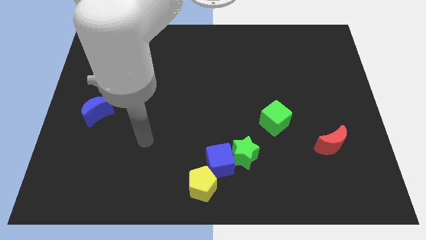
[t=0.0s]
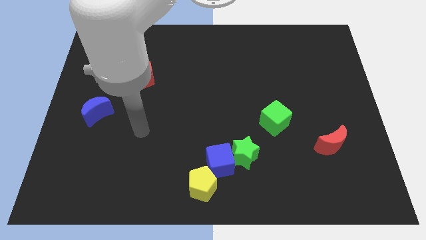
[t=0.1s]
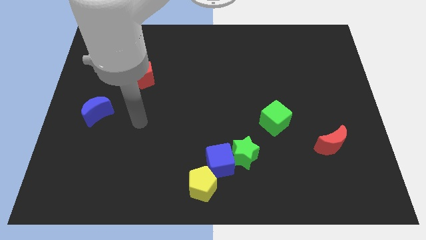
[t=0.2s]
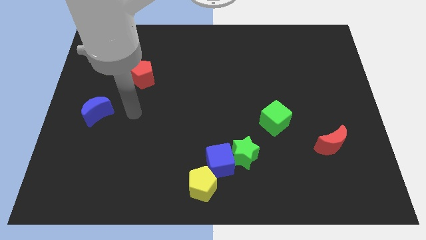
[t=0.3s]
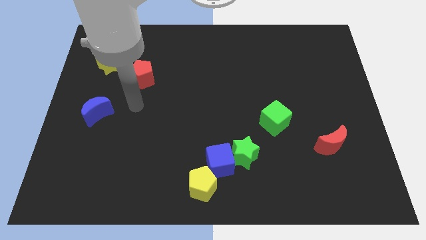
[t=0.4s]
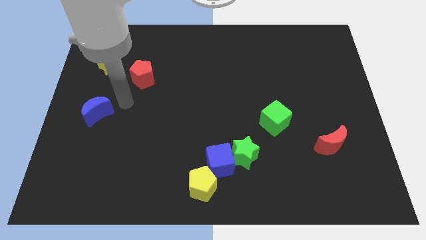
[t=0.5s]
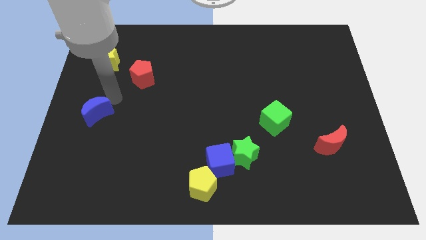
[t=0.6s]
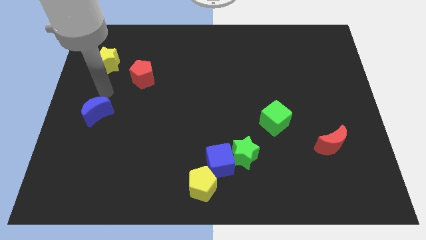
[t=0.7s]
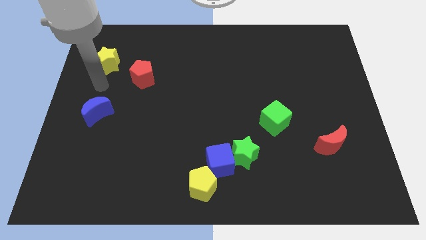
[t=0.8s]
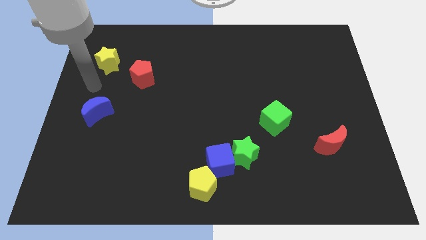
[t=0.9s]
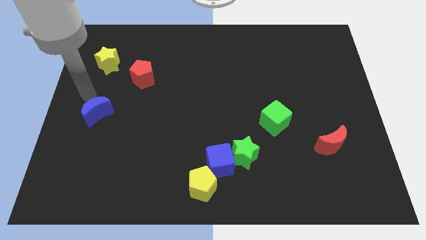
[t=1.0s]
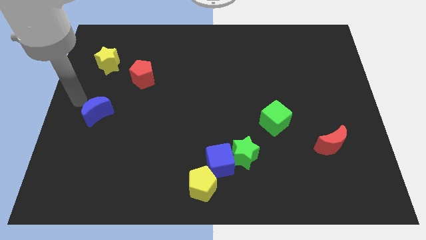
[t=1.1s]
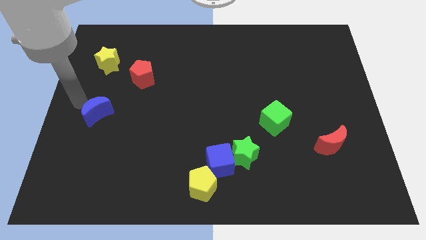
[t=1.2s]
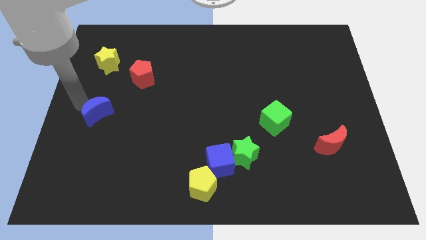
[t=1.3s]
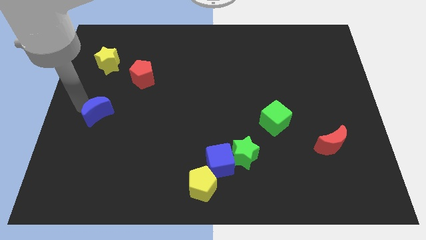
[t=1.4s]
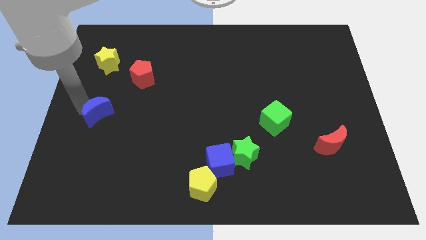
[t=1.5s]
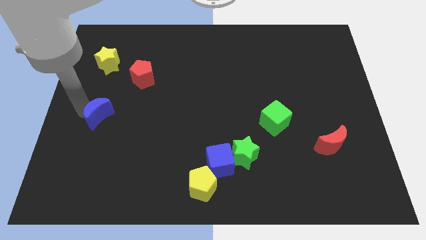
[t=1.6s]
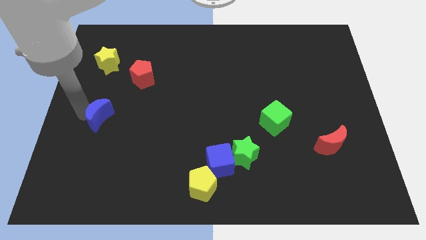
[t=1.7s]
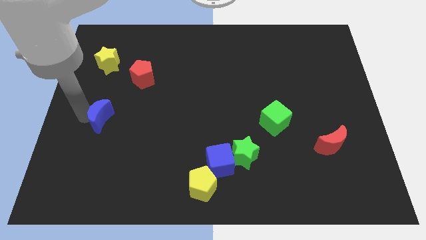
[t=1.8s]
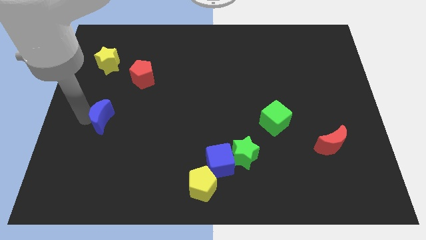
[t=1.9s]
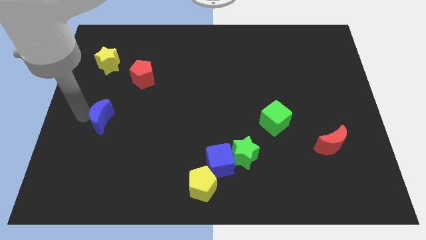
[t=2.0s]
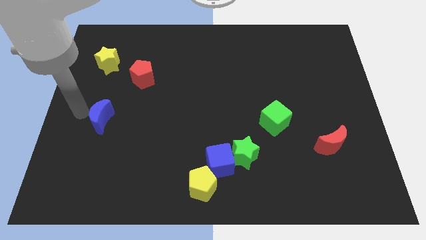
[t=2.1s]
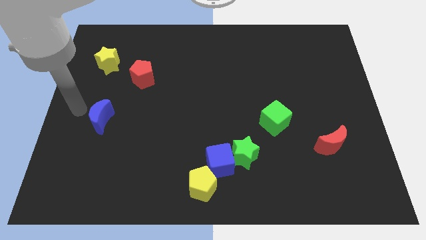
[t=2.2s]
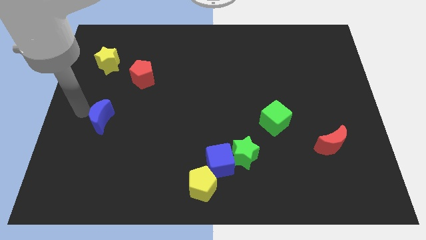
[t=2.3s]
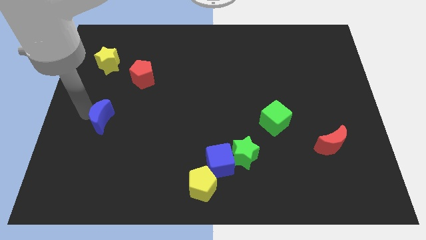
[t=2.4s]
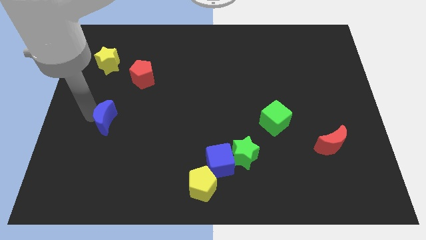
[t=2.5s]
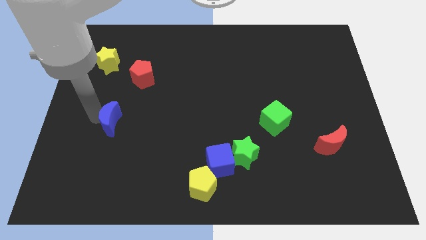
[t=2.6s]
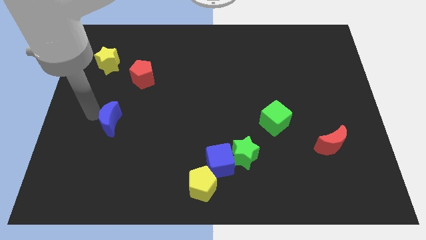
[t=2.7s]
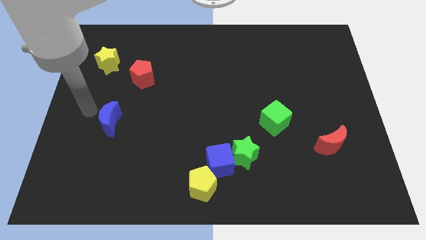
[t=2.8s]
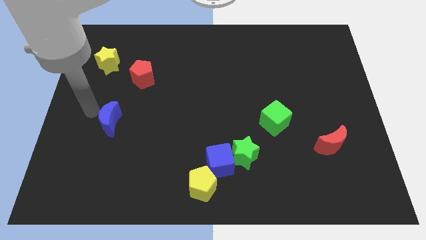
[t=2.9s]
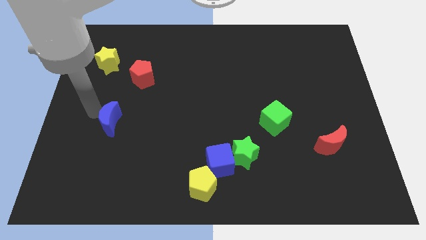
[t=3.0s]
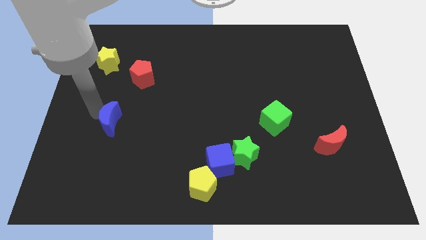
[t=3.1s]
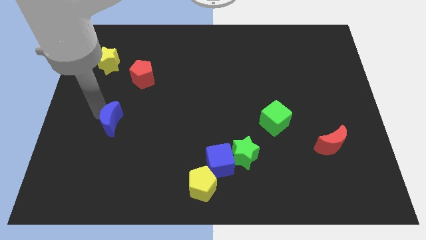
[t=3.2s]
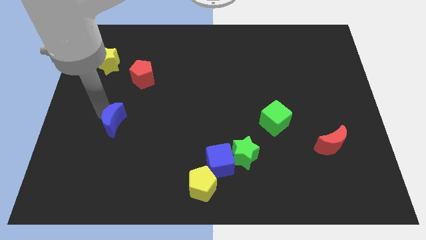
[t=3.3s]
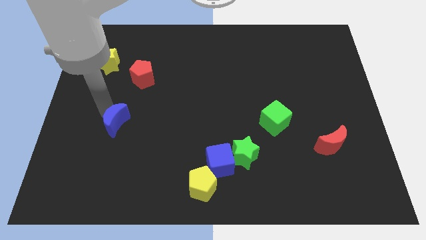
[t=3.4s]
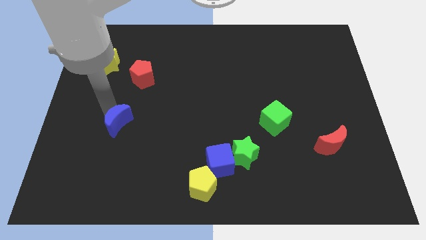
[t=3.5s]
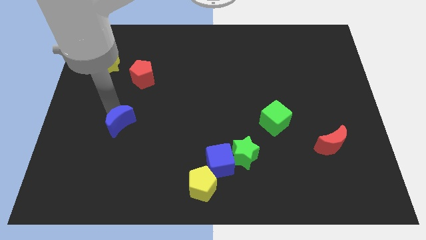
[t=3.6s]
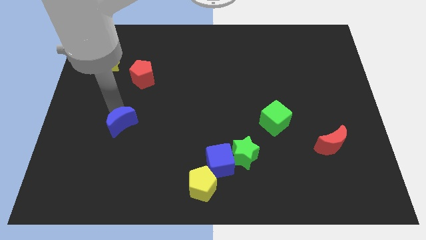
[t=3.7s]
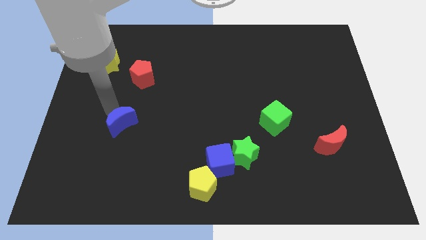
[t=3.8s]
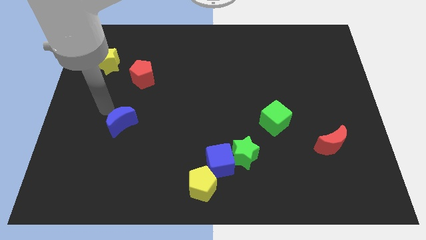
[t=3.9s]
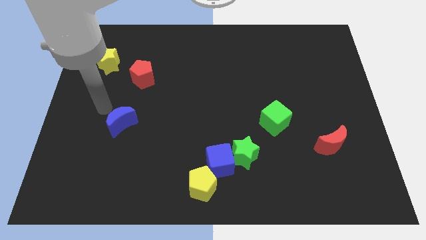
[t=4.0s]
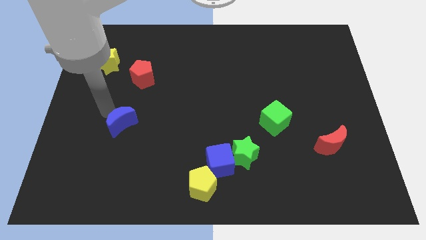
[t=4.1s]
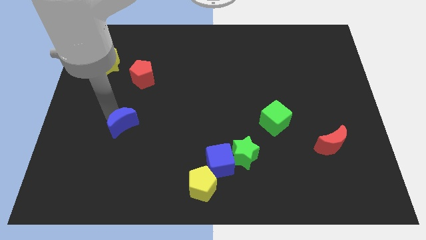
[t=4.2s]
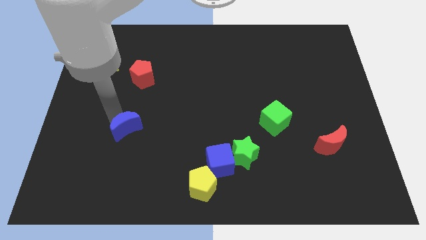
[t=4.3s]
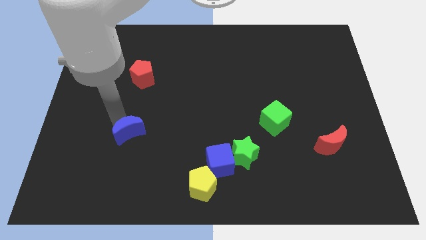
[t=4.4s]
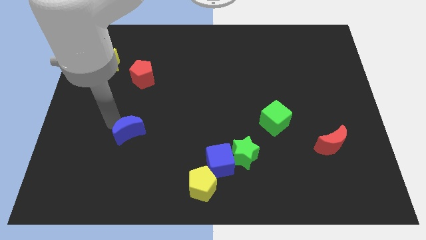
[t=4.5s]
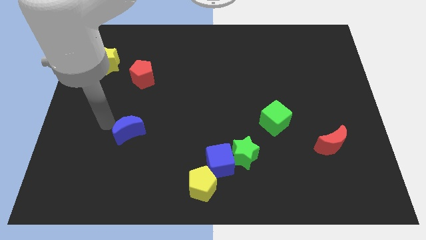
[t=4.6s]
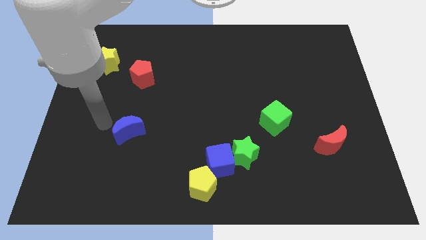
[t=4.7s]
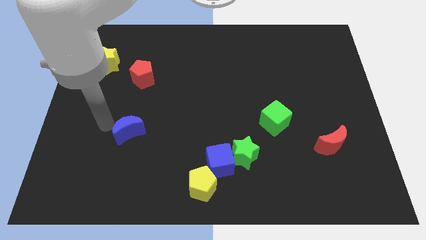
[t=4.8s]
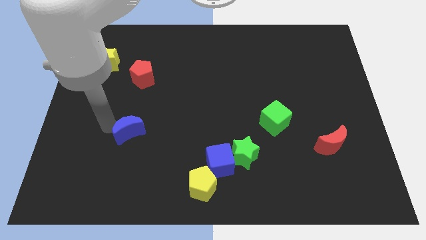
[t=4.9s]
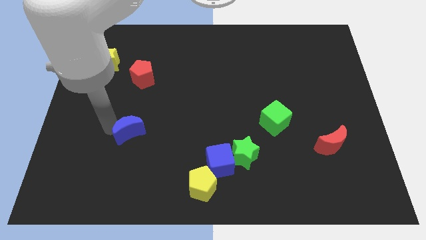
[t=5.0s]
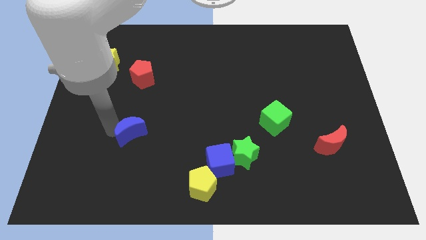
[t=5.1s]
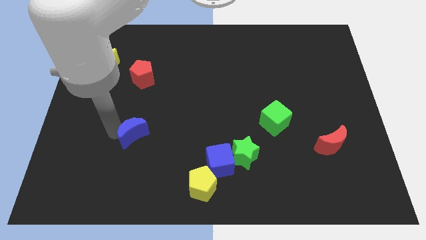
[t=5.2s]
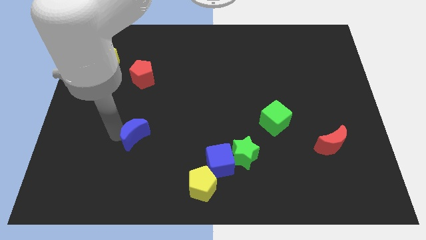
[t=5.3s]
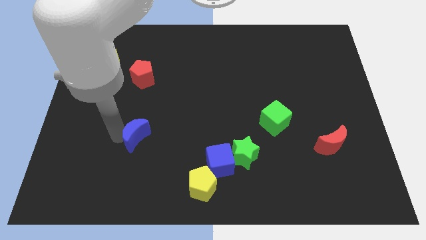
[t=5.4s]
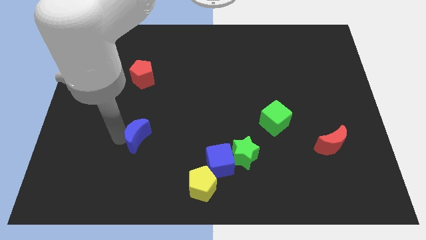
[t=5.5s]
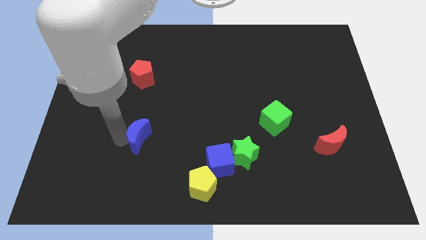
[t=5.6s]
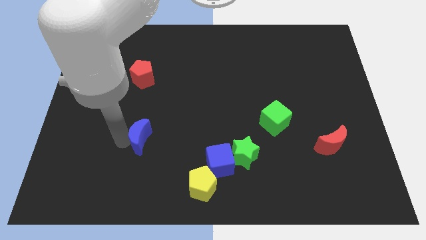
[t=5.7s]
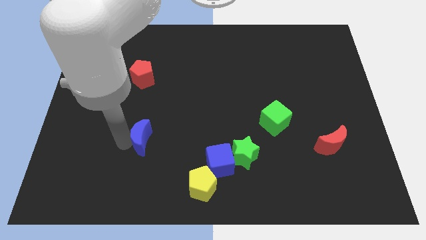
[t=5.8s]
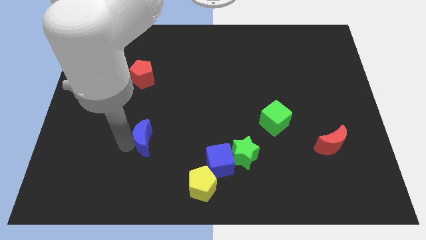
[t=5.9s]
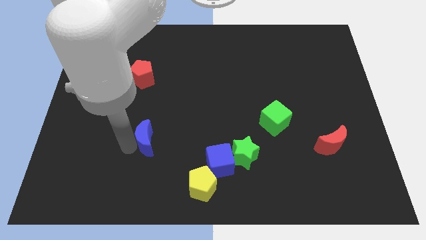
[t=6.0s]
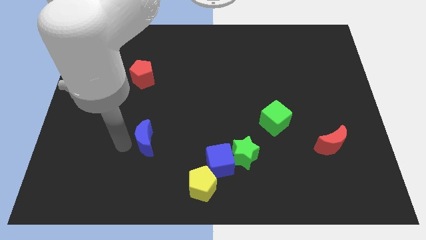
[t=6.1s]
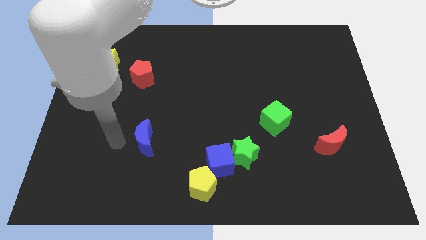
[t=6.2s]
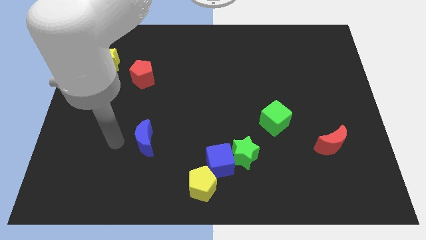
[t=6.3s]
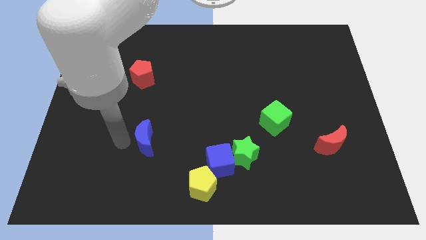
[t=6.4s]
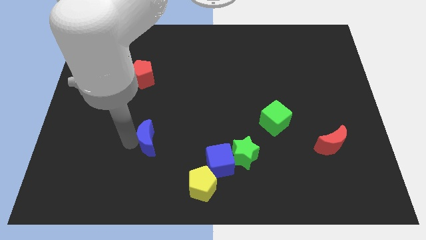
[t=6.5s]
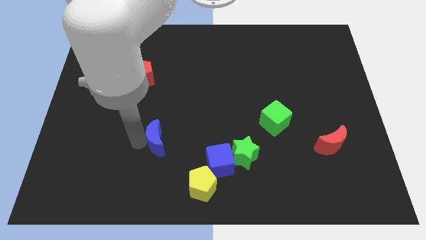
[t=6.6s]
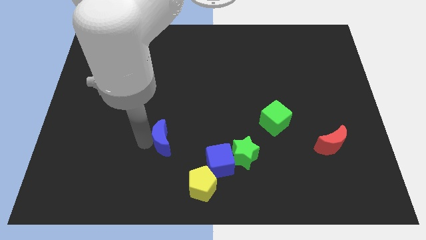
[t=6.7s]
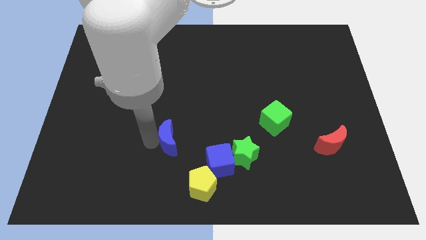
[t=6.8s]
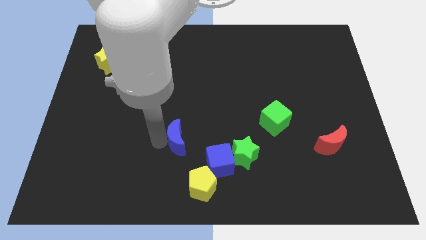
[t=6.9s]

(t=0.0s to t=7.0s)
slide the blue moon to the top left of the blue cube
